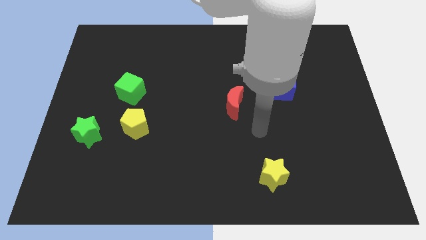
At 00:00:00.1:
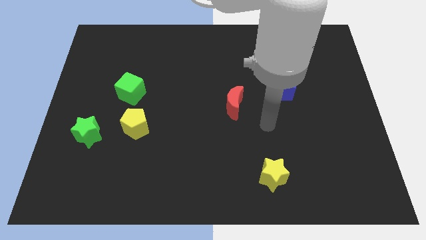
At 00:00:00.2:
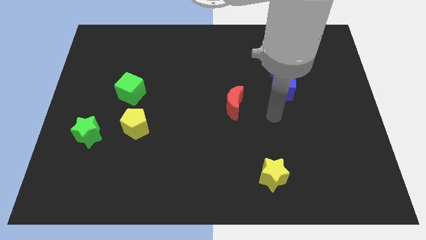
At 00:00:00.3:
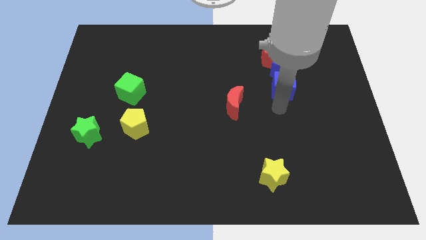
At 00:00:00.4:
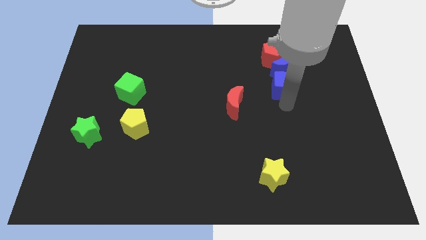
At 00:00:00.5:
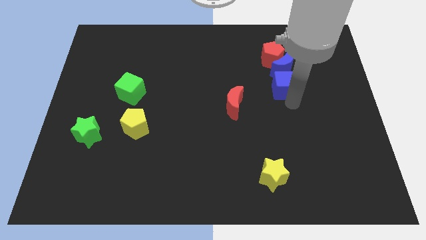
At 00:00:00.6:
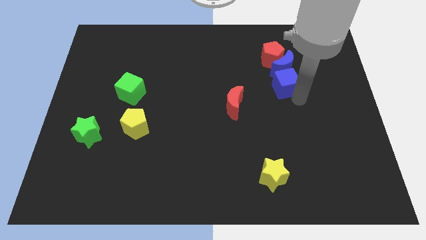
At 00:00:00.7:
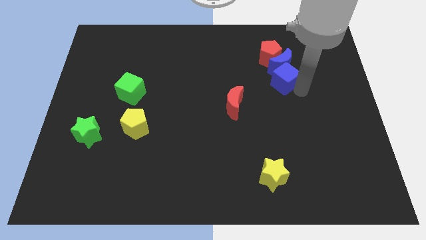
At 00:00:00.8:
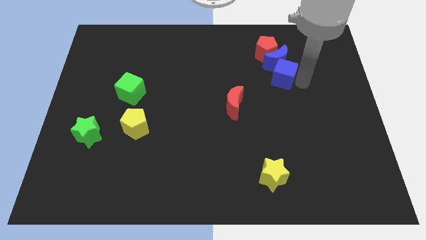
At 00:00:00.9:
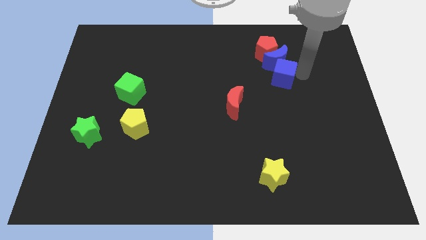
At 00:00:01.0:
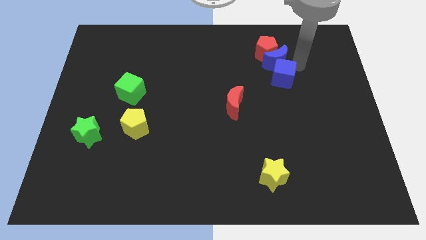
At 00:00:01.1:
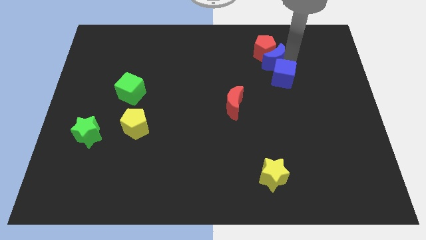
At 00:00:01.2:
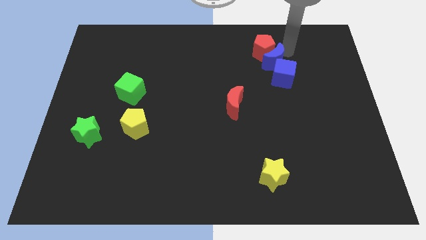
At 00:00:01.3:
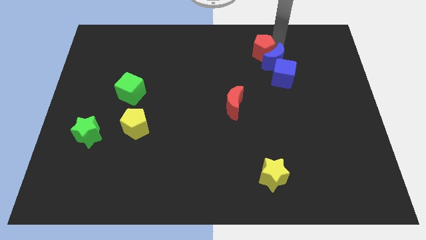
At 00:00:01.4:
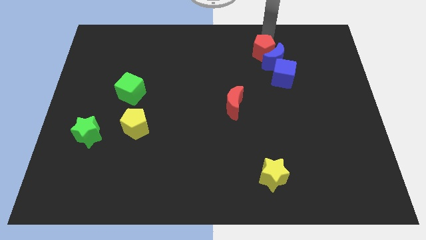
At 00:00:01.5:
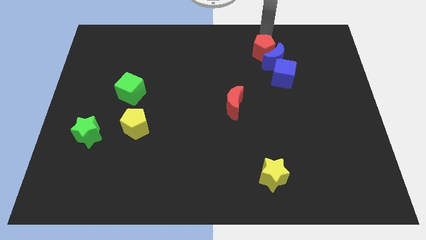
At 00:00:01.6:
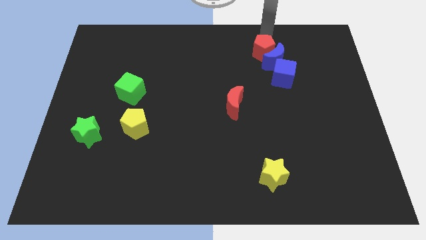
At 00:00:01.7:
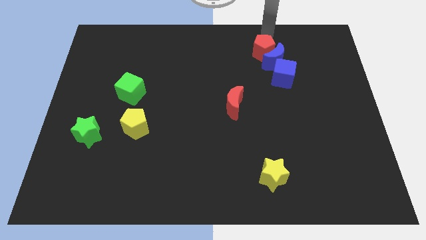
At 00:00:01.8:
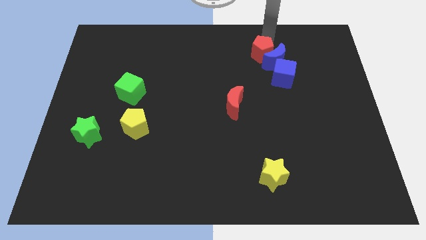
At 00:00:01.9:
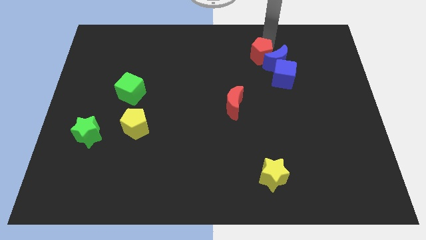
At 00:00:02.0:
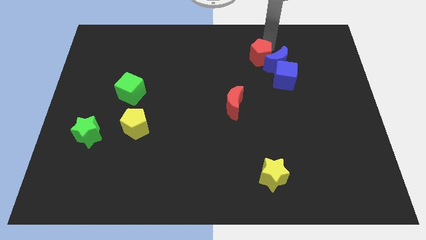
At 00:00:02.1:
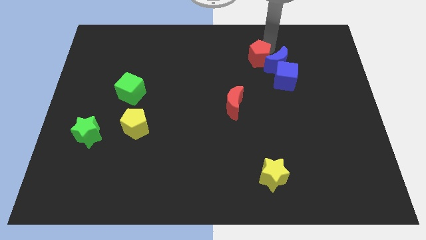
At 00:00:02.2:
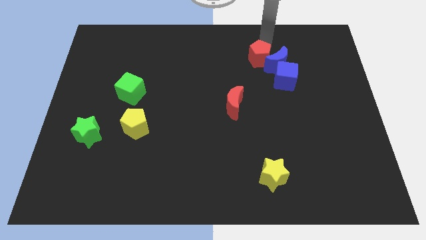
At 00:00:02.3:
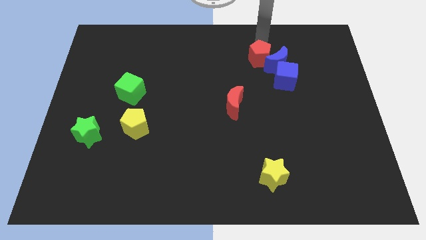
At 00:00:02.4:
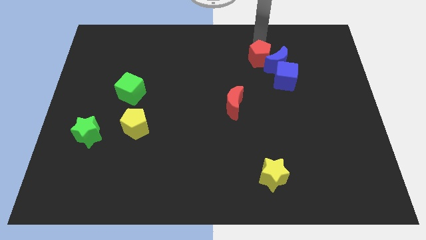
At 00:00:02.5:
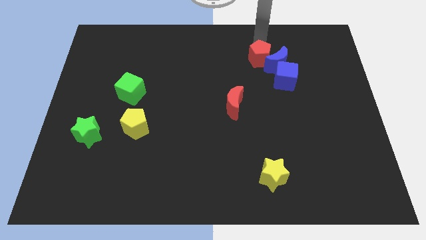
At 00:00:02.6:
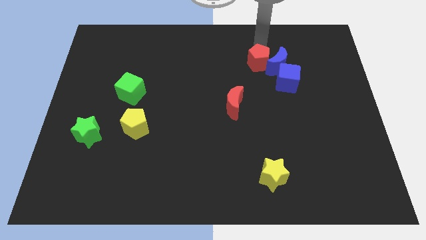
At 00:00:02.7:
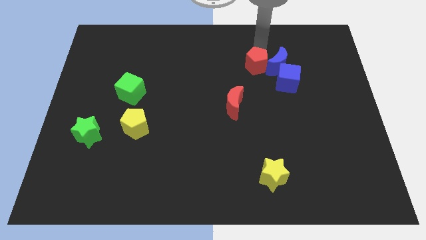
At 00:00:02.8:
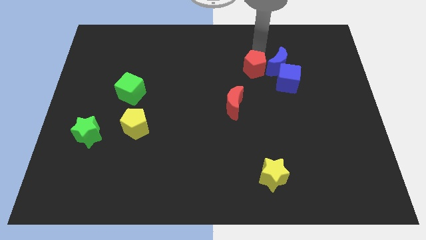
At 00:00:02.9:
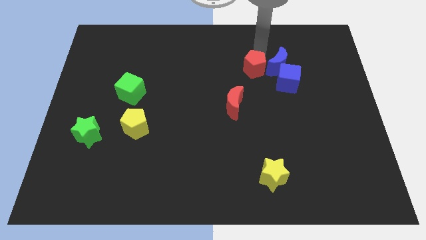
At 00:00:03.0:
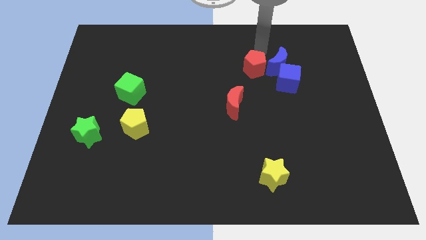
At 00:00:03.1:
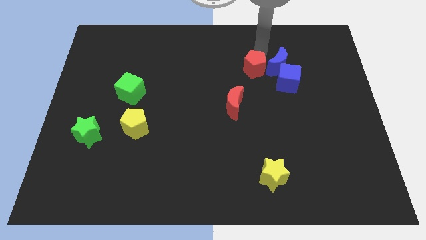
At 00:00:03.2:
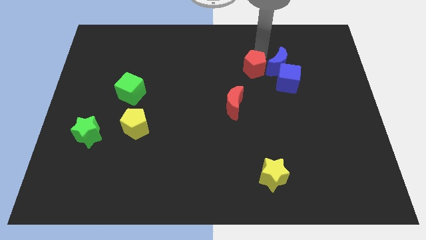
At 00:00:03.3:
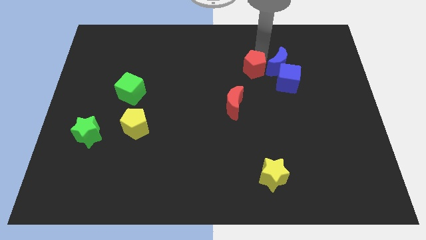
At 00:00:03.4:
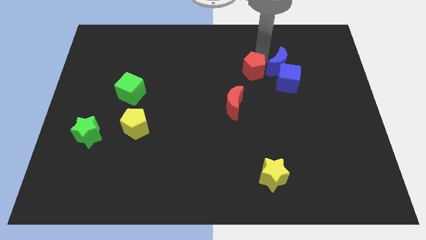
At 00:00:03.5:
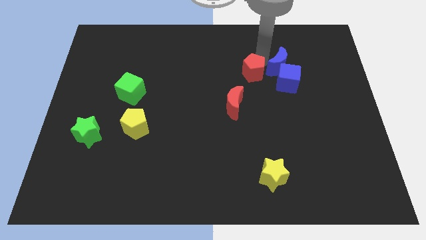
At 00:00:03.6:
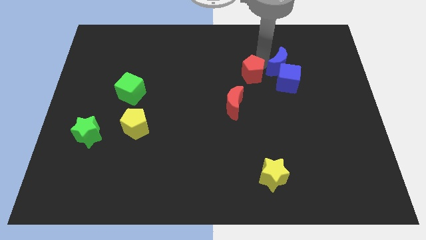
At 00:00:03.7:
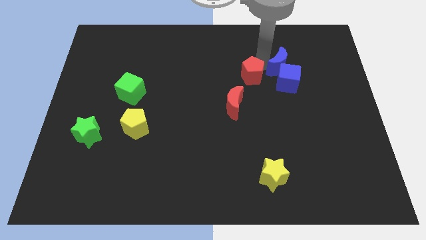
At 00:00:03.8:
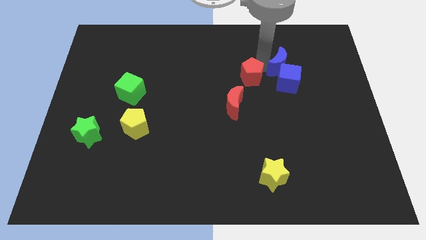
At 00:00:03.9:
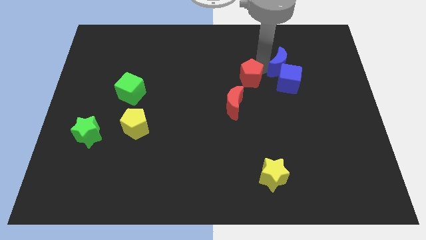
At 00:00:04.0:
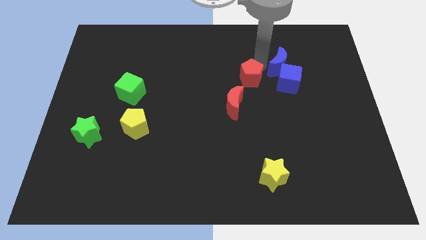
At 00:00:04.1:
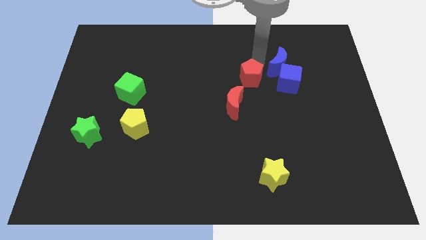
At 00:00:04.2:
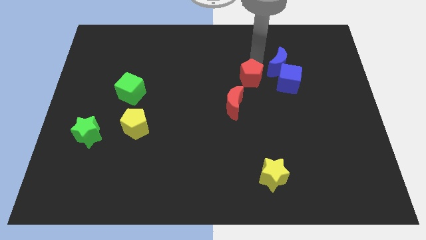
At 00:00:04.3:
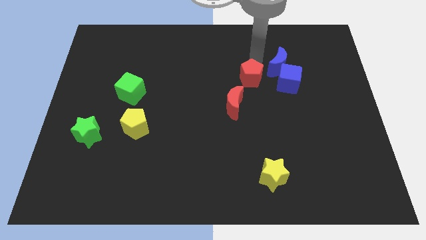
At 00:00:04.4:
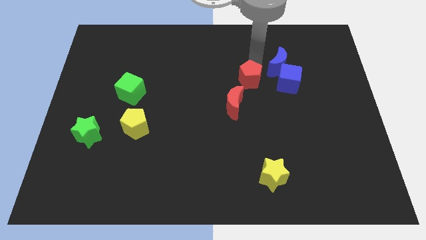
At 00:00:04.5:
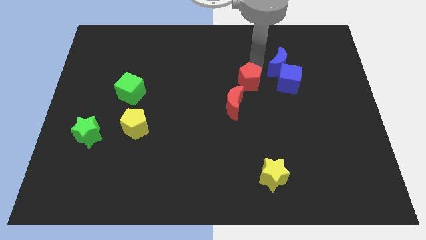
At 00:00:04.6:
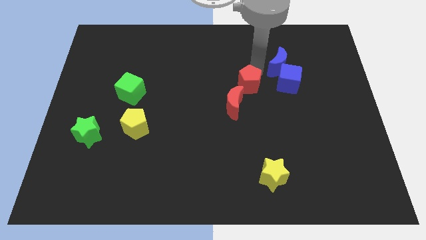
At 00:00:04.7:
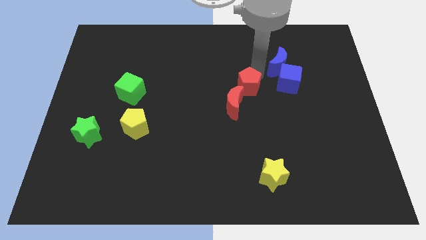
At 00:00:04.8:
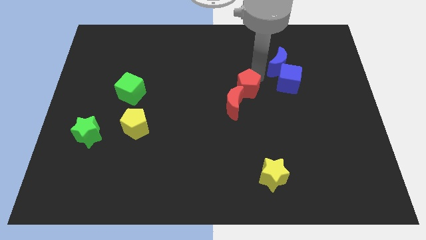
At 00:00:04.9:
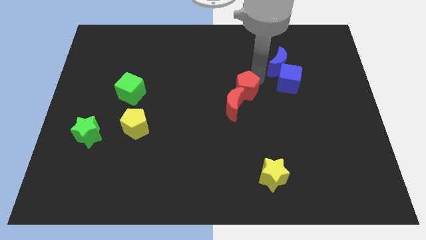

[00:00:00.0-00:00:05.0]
move the red pentagon to the red moon

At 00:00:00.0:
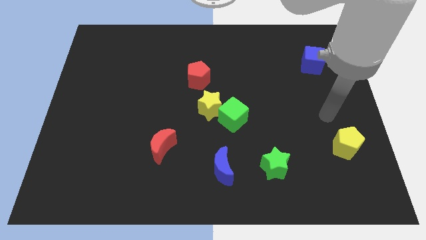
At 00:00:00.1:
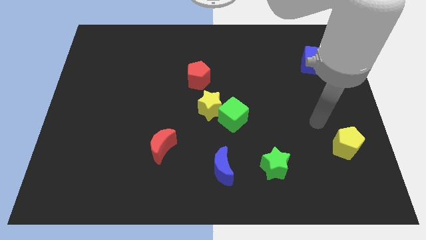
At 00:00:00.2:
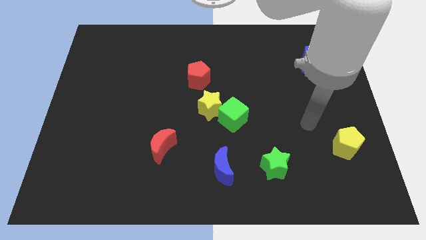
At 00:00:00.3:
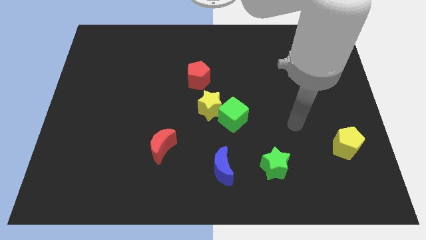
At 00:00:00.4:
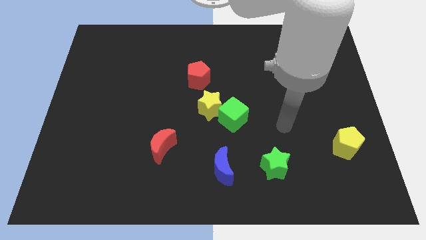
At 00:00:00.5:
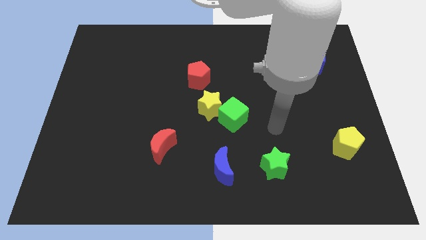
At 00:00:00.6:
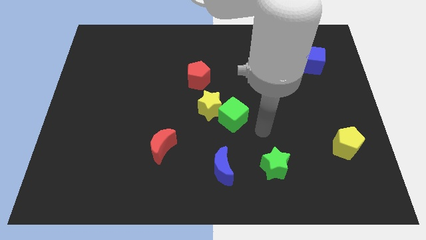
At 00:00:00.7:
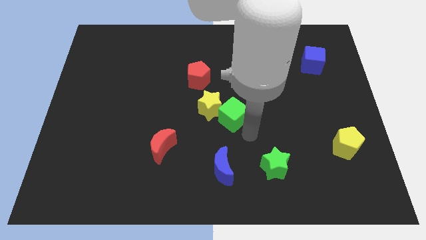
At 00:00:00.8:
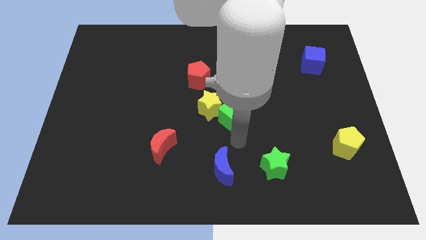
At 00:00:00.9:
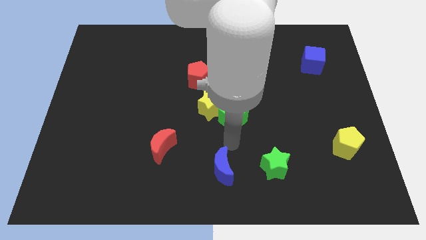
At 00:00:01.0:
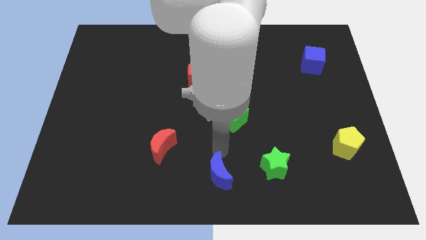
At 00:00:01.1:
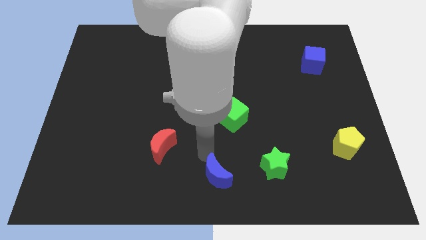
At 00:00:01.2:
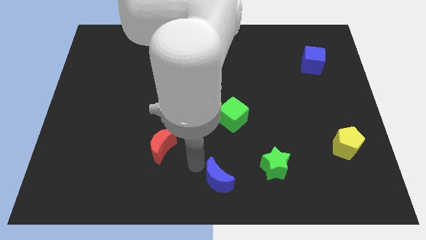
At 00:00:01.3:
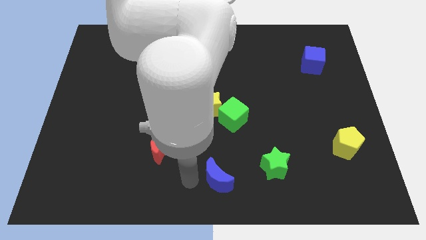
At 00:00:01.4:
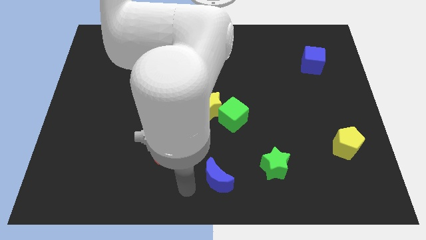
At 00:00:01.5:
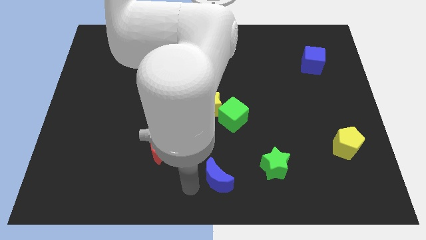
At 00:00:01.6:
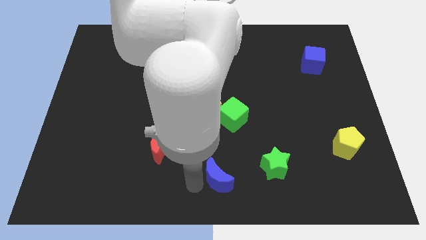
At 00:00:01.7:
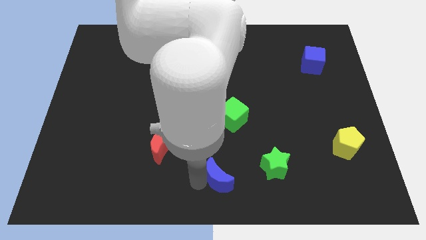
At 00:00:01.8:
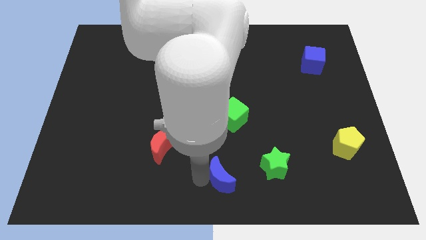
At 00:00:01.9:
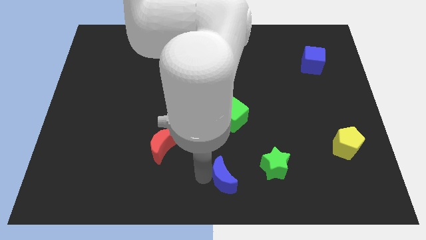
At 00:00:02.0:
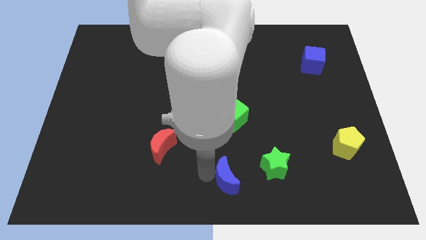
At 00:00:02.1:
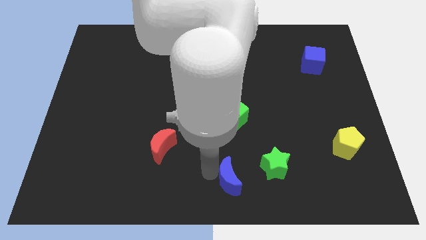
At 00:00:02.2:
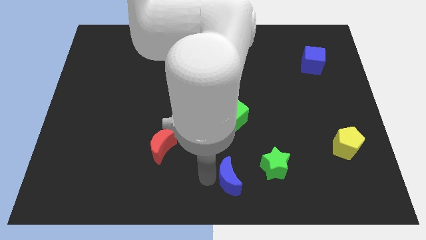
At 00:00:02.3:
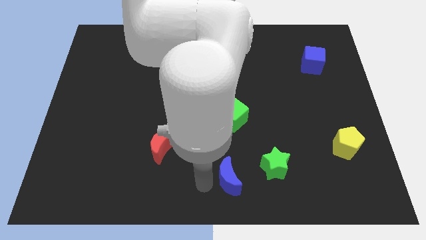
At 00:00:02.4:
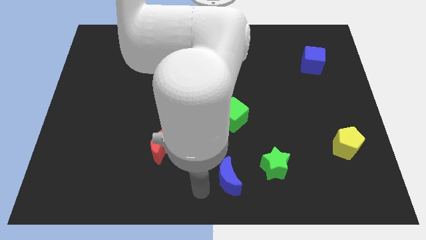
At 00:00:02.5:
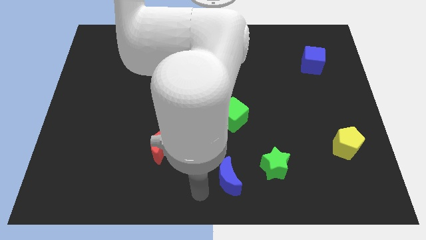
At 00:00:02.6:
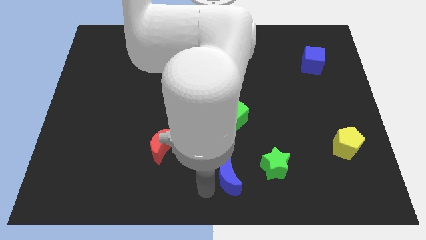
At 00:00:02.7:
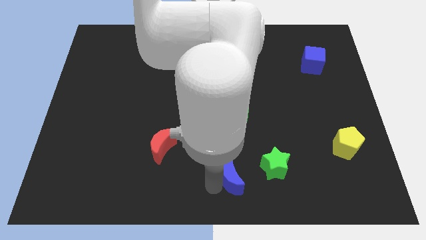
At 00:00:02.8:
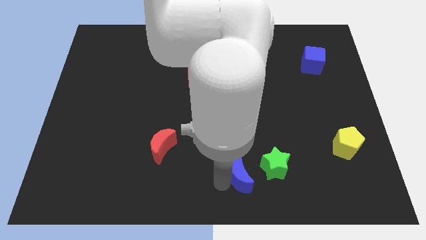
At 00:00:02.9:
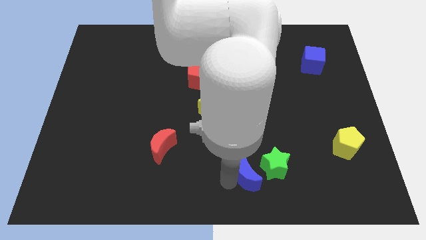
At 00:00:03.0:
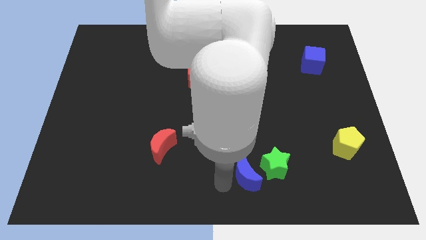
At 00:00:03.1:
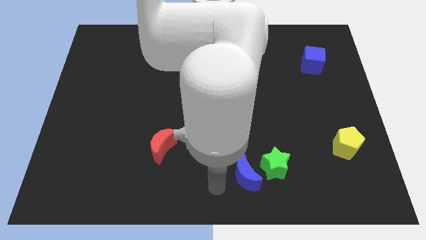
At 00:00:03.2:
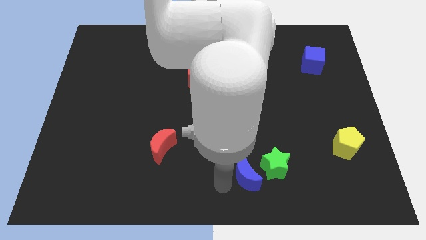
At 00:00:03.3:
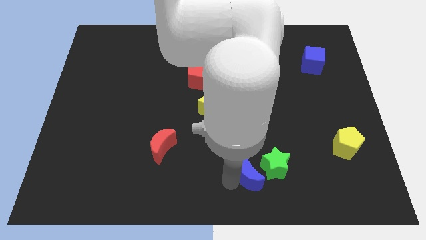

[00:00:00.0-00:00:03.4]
put the blue moon towards the green star
